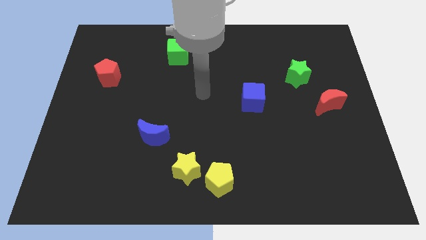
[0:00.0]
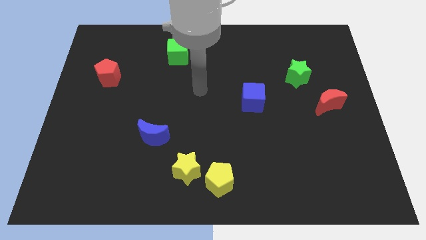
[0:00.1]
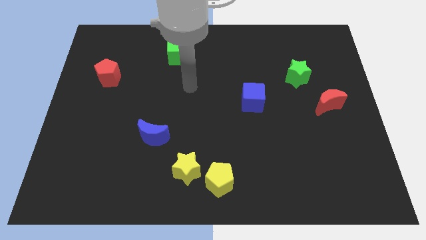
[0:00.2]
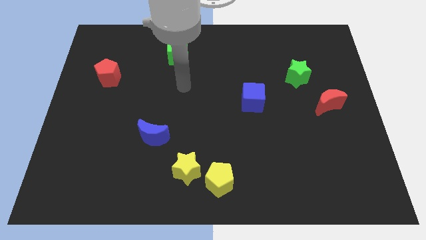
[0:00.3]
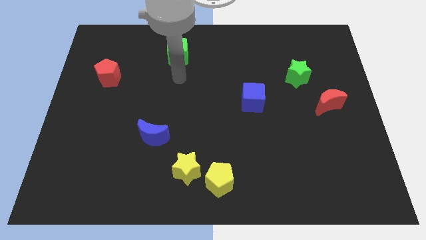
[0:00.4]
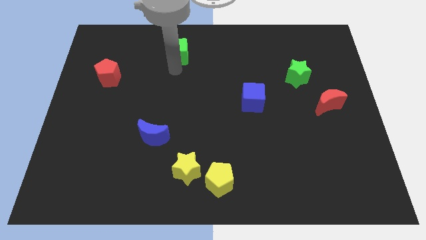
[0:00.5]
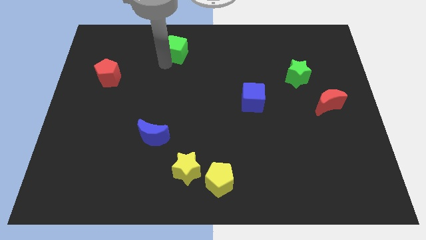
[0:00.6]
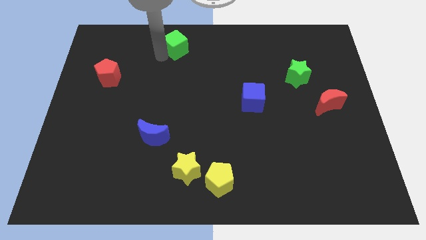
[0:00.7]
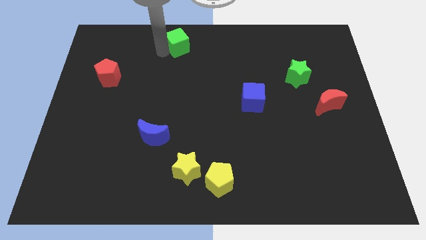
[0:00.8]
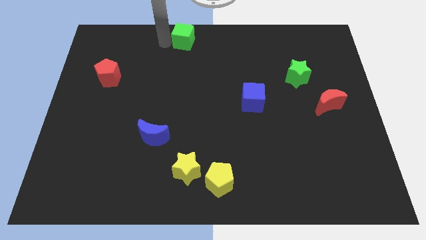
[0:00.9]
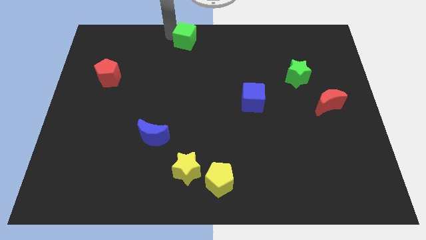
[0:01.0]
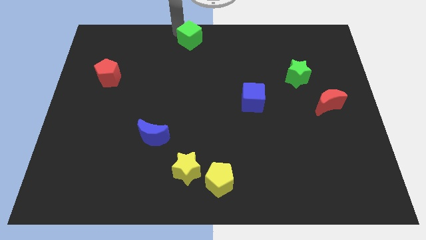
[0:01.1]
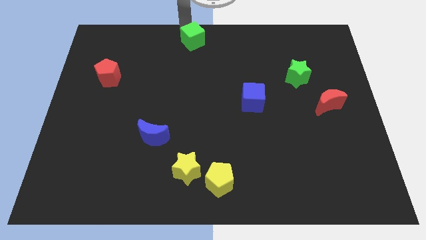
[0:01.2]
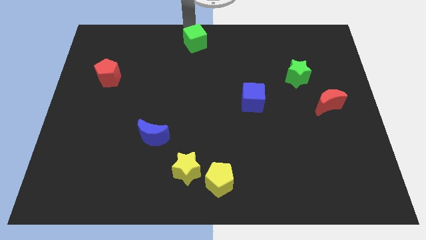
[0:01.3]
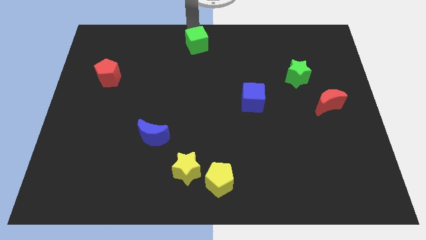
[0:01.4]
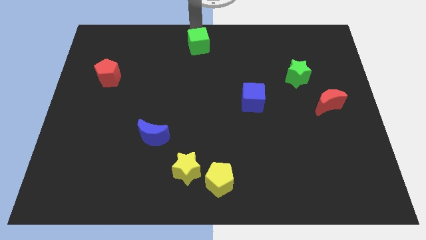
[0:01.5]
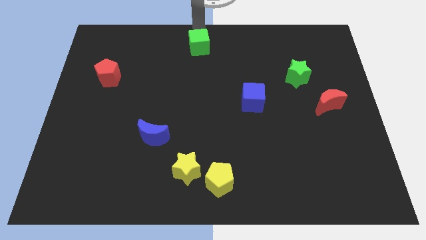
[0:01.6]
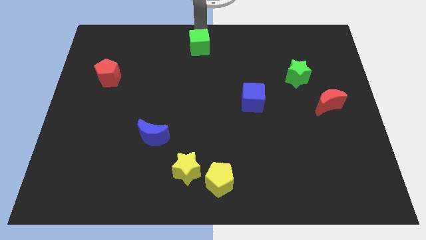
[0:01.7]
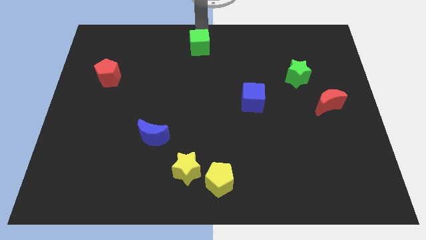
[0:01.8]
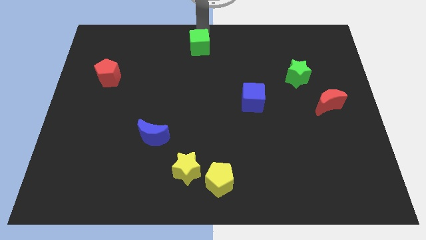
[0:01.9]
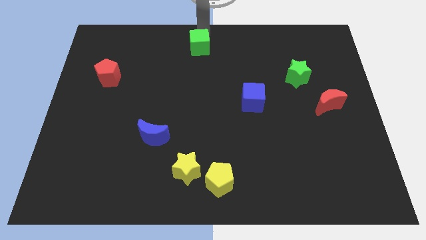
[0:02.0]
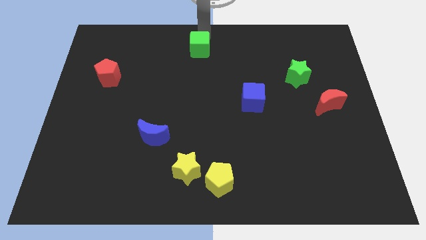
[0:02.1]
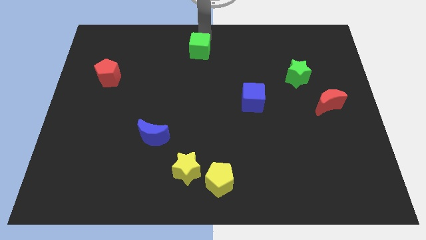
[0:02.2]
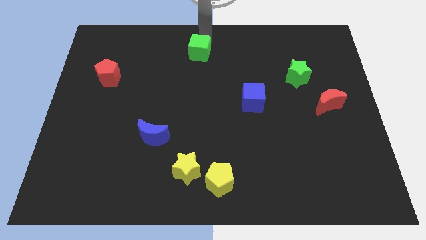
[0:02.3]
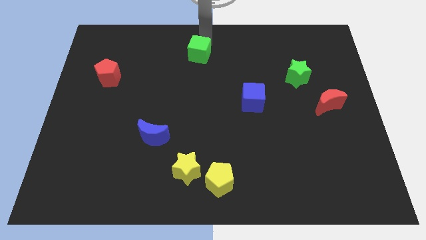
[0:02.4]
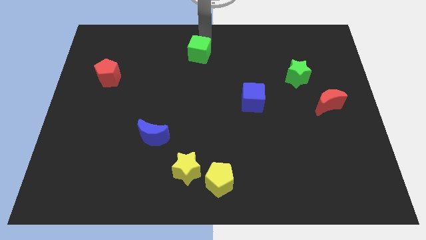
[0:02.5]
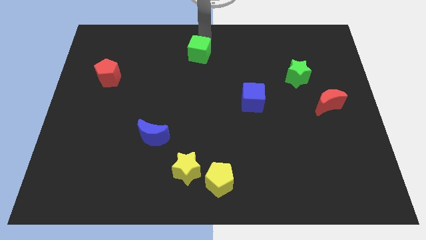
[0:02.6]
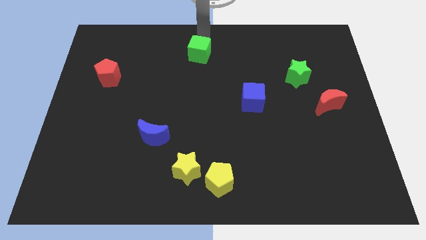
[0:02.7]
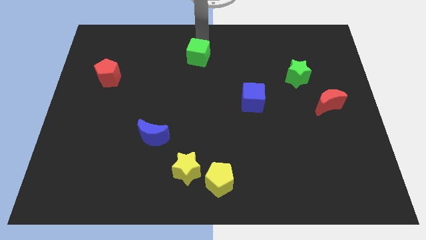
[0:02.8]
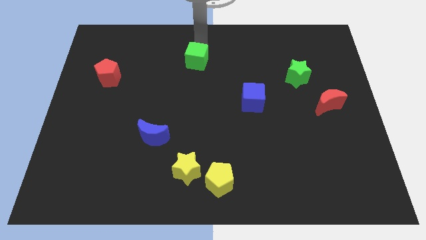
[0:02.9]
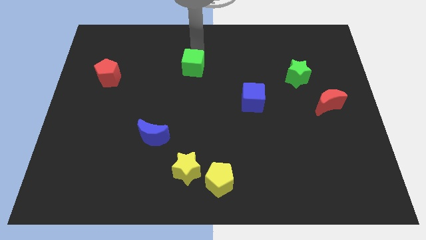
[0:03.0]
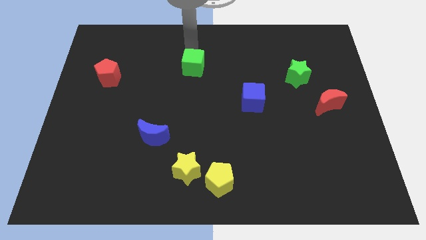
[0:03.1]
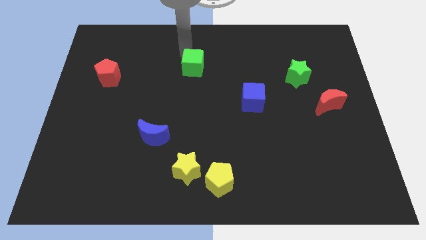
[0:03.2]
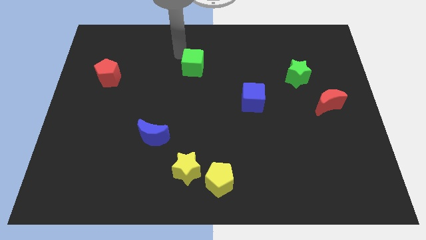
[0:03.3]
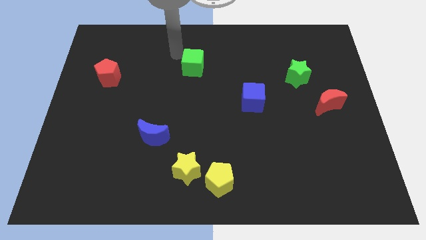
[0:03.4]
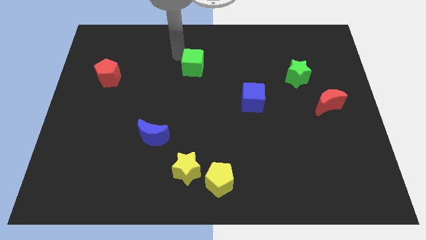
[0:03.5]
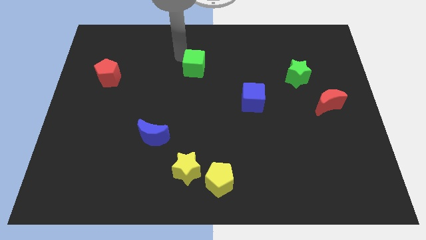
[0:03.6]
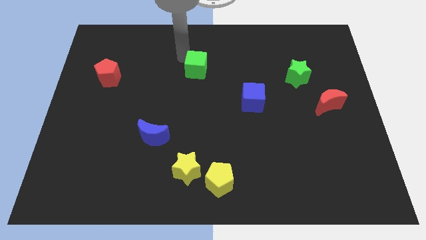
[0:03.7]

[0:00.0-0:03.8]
push the green cube a bit down and to the right diagonally

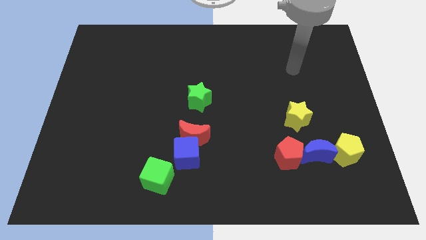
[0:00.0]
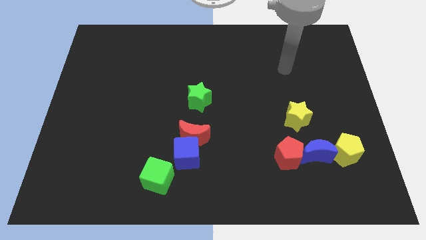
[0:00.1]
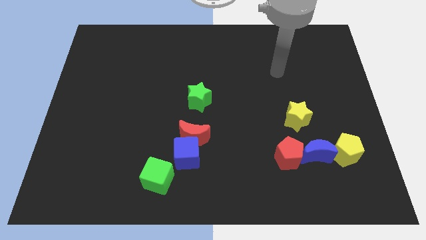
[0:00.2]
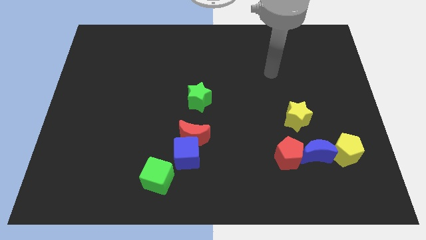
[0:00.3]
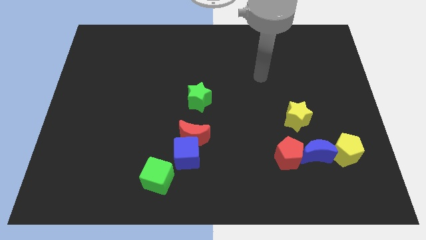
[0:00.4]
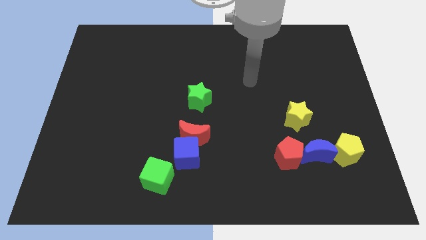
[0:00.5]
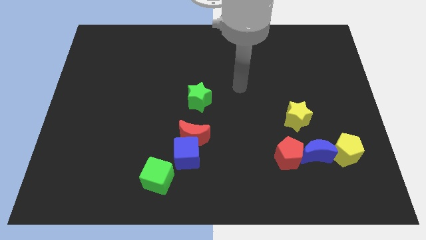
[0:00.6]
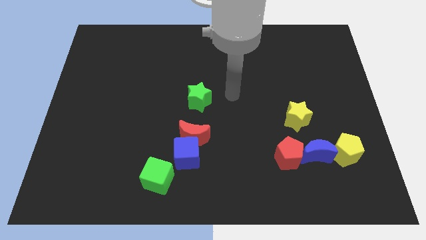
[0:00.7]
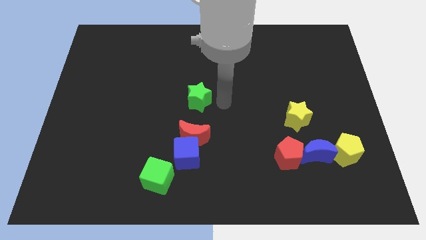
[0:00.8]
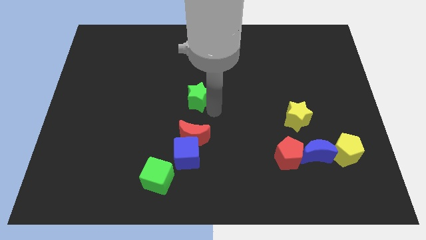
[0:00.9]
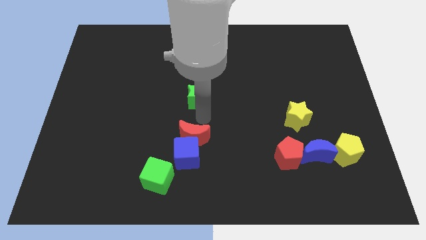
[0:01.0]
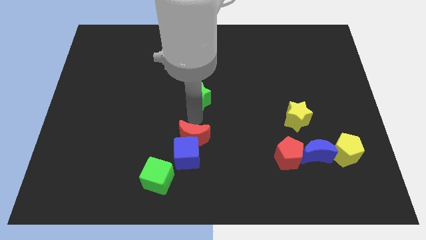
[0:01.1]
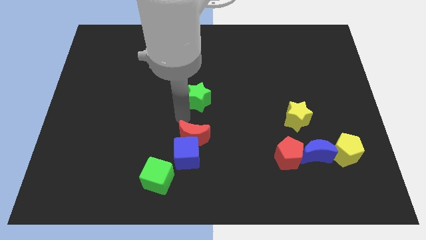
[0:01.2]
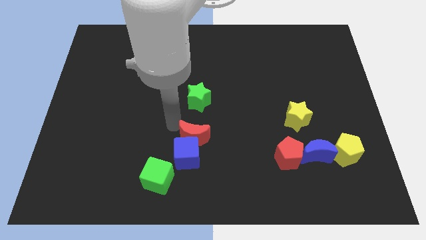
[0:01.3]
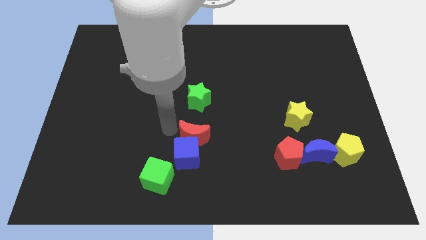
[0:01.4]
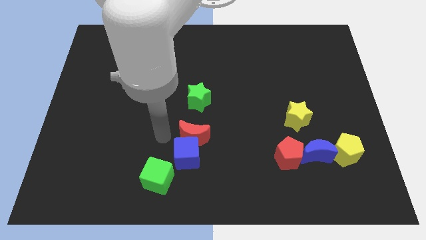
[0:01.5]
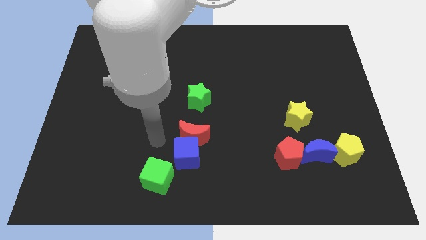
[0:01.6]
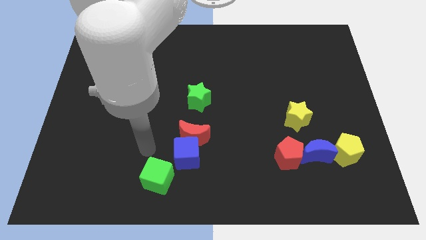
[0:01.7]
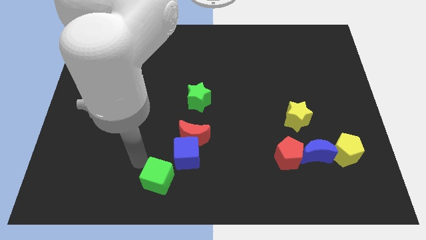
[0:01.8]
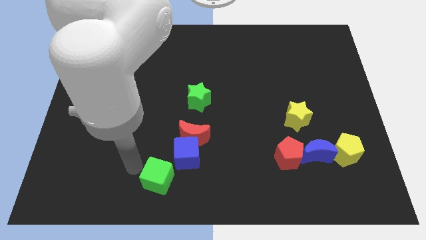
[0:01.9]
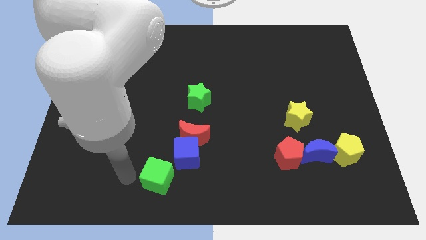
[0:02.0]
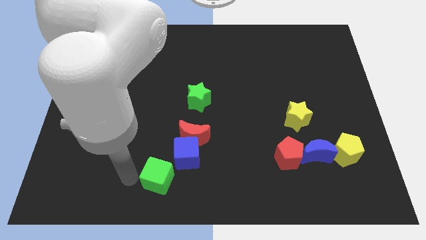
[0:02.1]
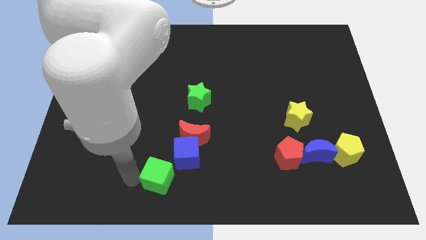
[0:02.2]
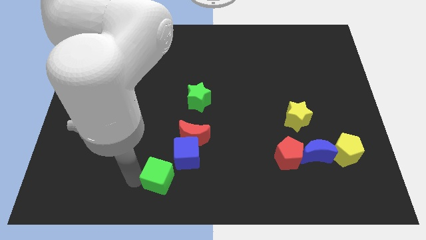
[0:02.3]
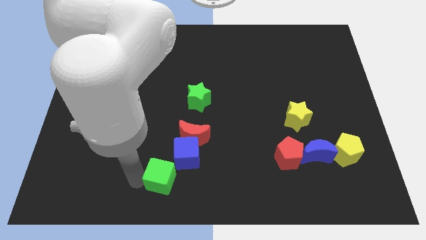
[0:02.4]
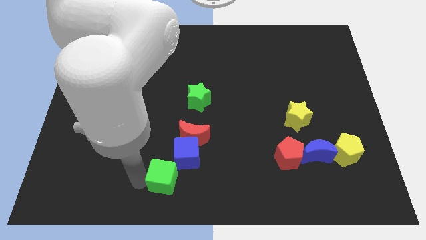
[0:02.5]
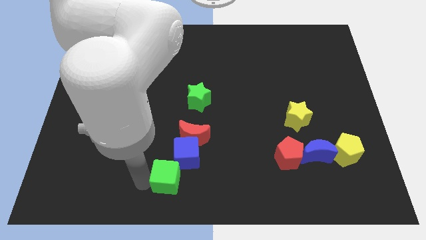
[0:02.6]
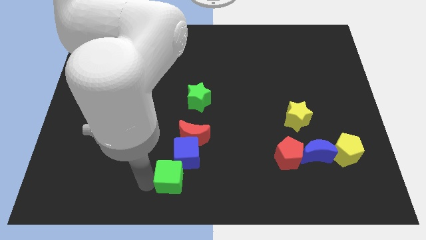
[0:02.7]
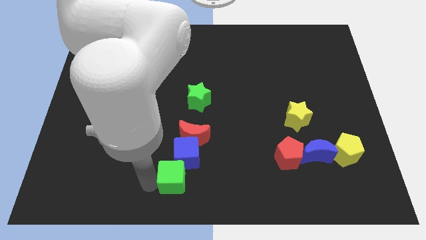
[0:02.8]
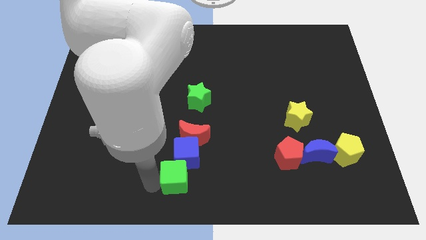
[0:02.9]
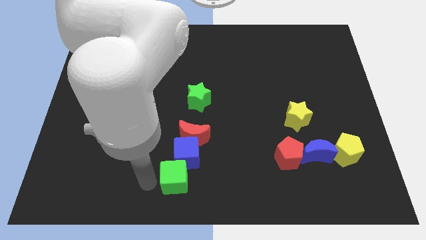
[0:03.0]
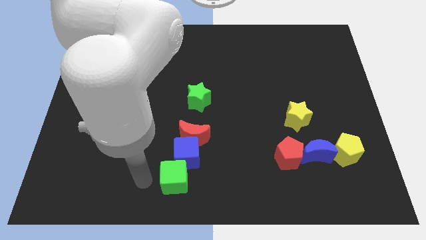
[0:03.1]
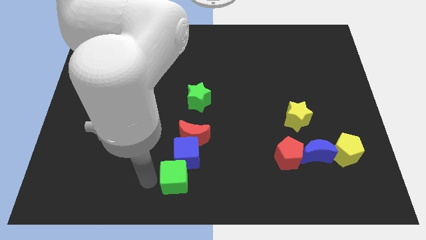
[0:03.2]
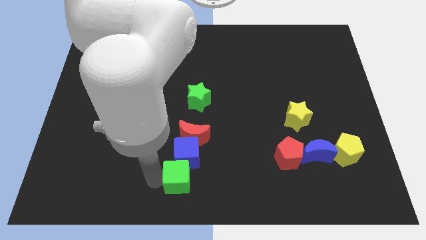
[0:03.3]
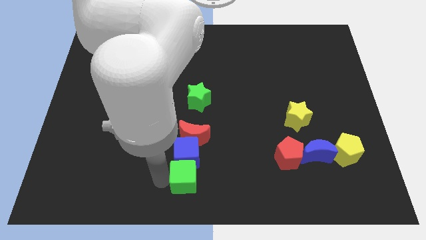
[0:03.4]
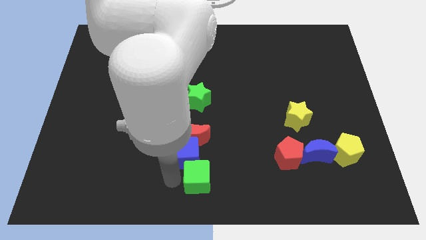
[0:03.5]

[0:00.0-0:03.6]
slightly push the green cube to the right

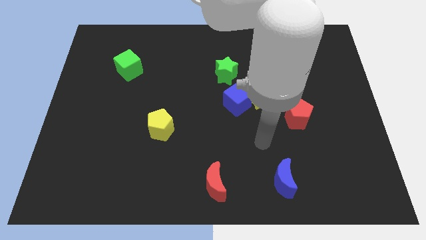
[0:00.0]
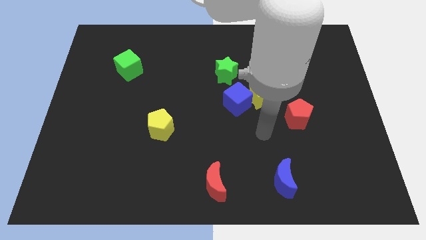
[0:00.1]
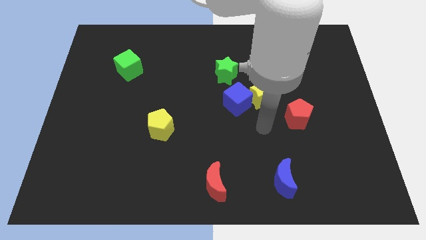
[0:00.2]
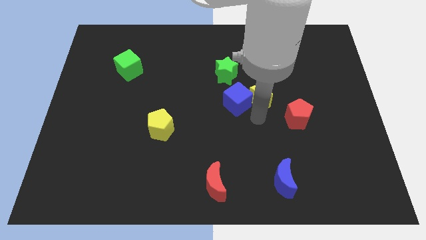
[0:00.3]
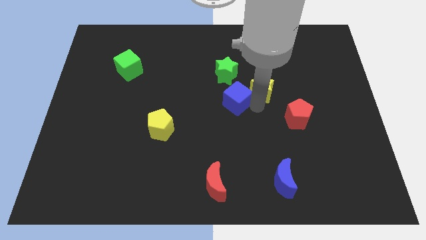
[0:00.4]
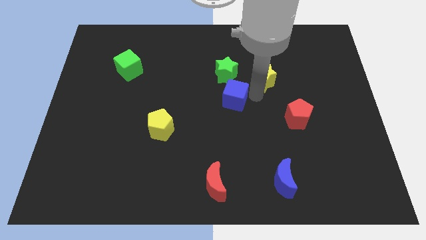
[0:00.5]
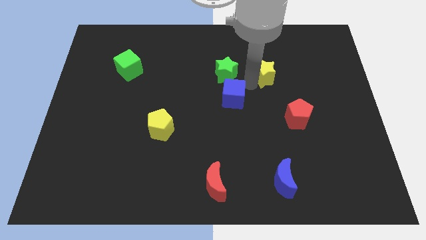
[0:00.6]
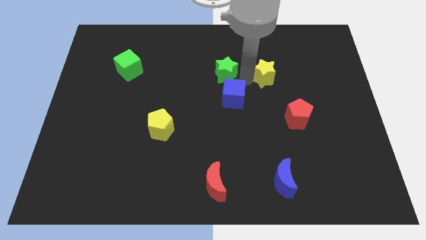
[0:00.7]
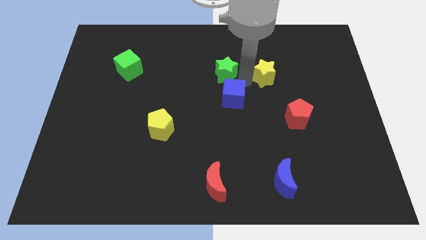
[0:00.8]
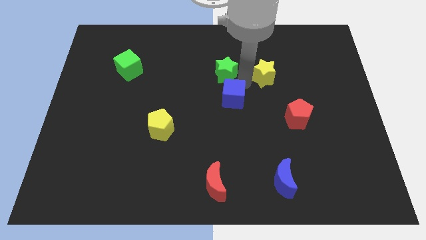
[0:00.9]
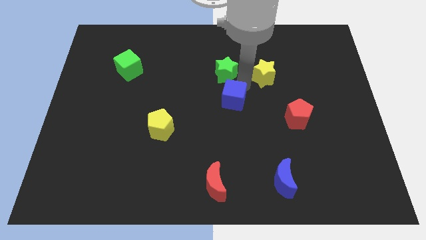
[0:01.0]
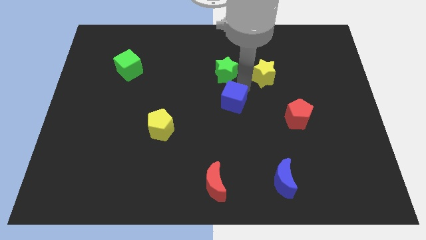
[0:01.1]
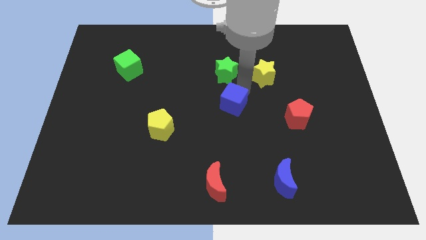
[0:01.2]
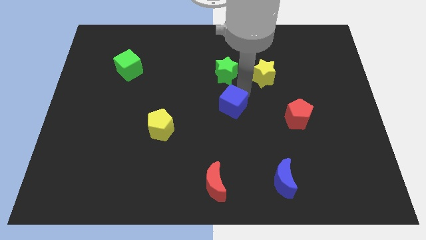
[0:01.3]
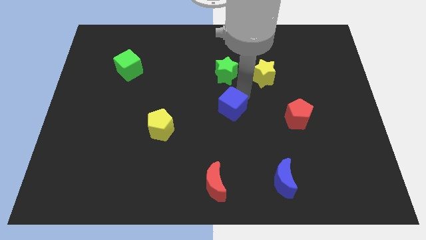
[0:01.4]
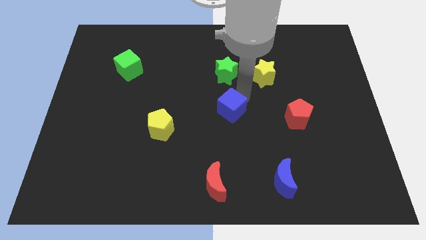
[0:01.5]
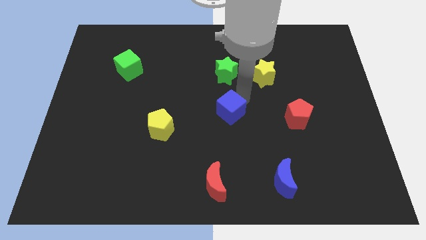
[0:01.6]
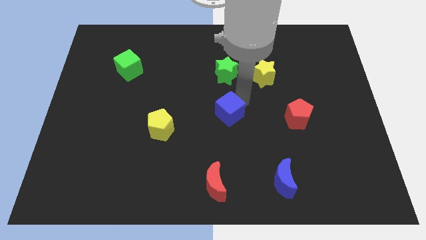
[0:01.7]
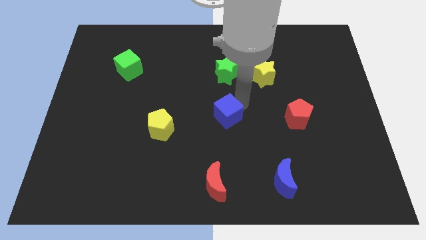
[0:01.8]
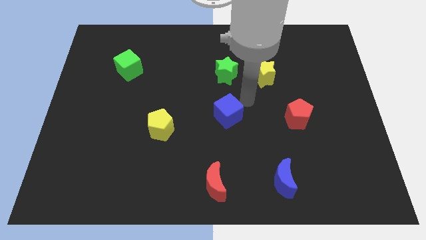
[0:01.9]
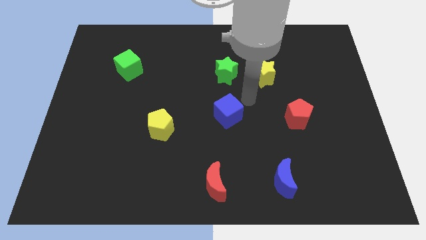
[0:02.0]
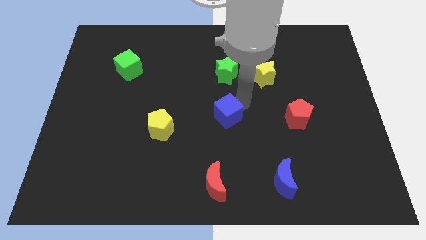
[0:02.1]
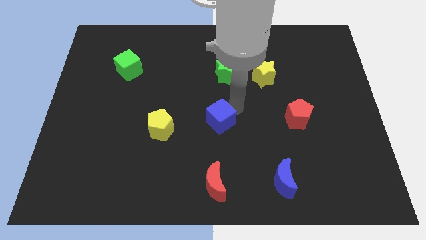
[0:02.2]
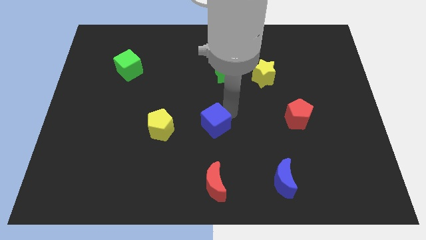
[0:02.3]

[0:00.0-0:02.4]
slide the blue cube a little bit diagonally downwards and left
